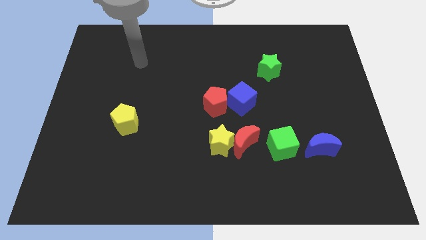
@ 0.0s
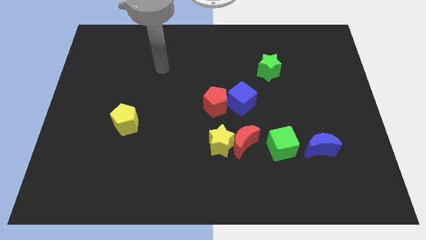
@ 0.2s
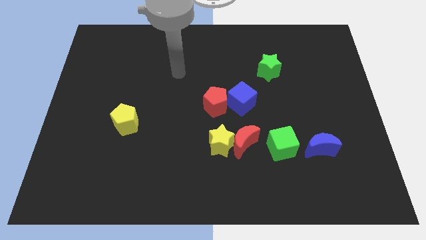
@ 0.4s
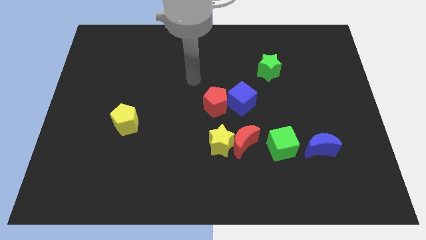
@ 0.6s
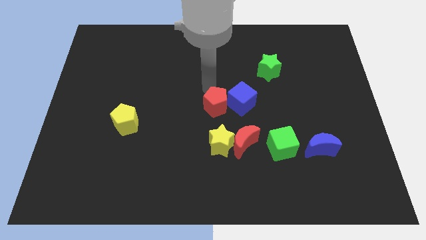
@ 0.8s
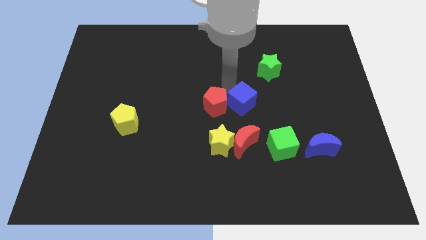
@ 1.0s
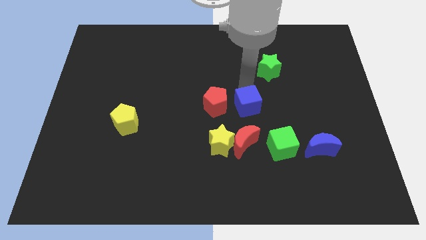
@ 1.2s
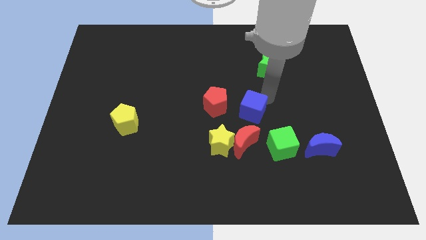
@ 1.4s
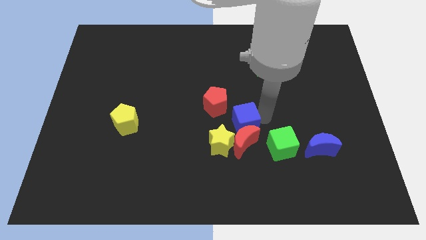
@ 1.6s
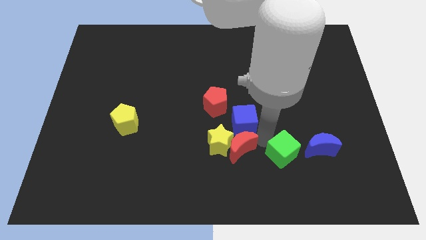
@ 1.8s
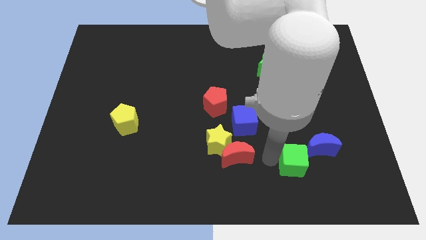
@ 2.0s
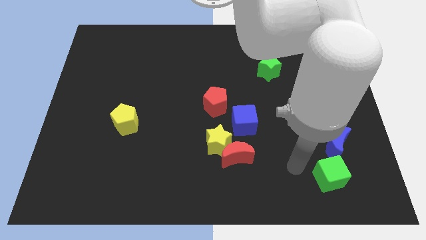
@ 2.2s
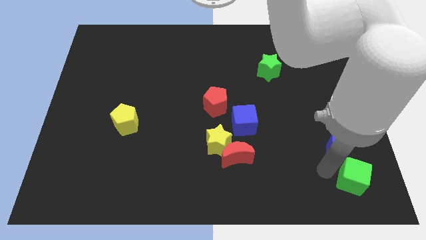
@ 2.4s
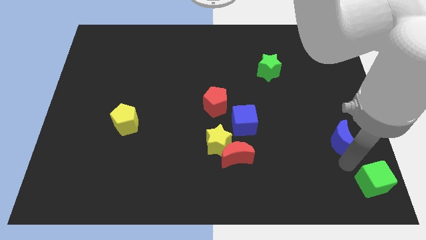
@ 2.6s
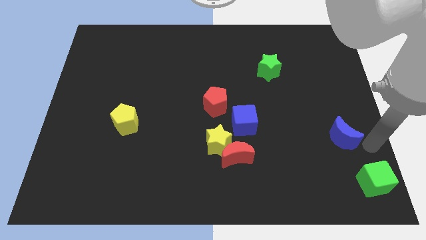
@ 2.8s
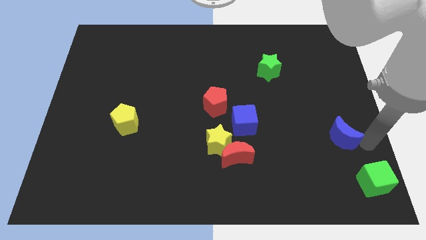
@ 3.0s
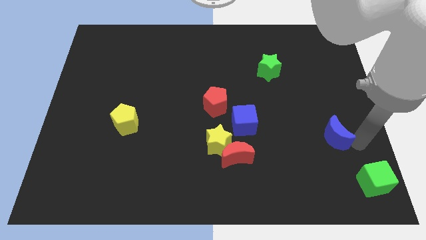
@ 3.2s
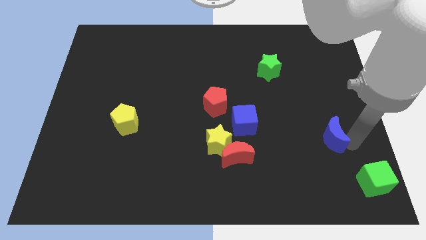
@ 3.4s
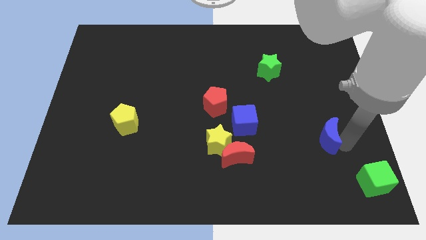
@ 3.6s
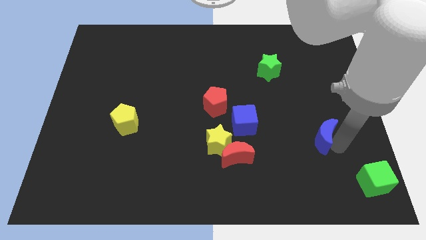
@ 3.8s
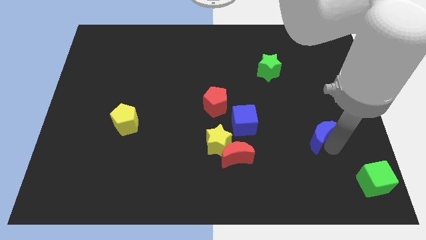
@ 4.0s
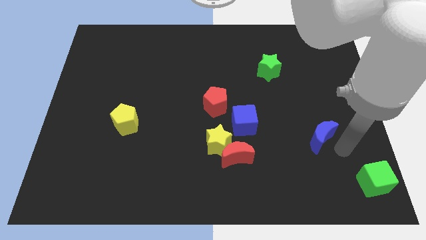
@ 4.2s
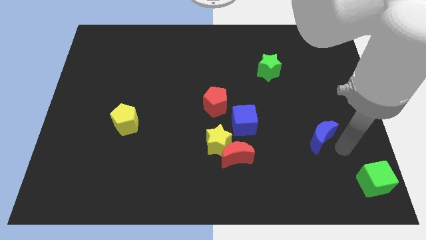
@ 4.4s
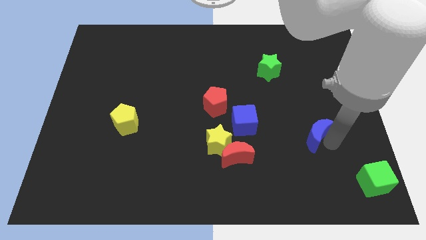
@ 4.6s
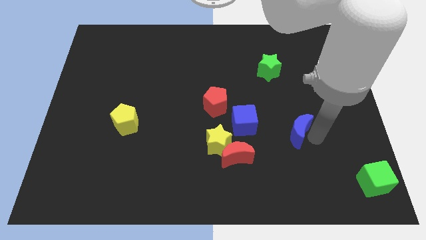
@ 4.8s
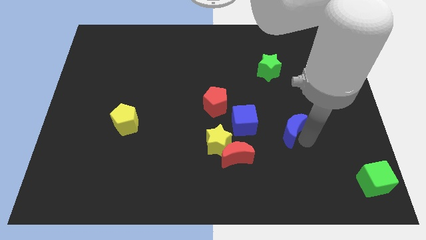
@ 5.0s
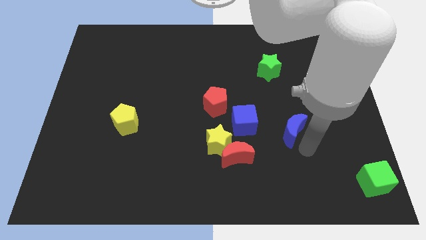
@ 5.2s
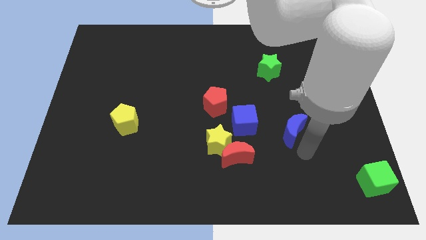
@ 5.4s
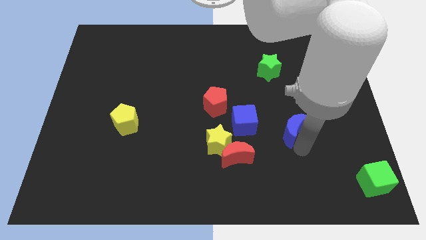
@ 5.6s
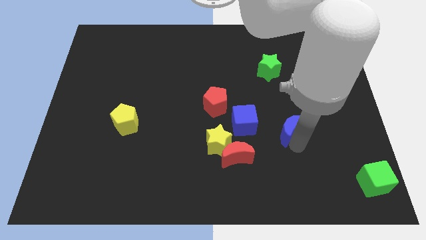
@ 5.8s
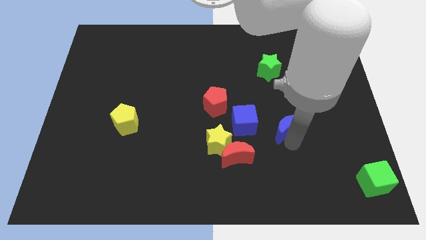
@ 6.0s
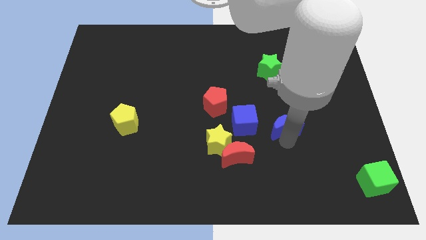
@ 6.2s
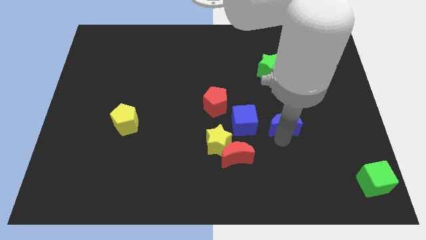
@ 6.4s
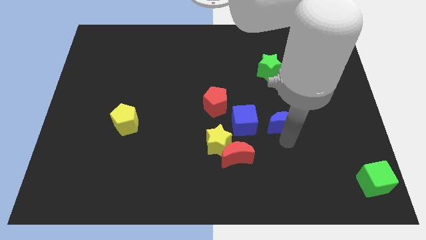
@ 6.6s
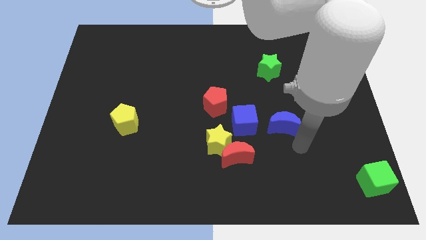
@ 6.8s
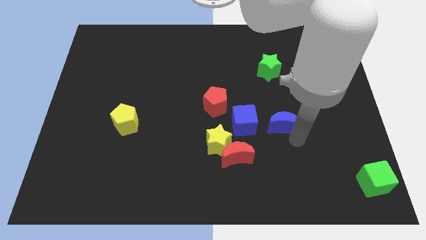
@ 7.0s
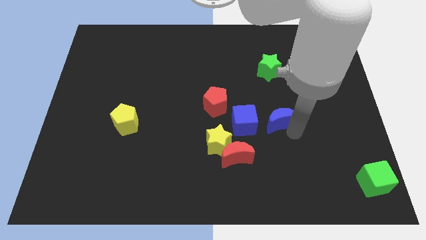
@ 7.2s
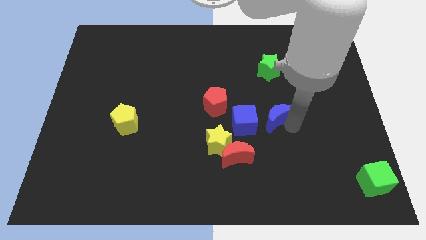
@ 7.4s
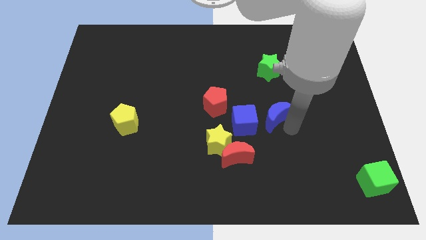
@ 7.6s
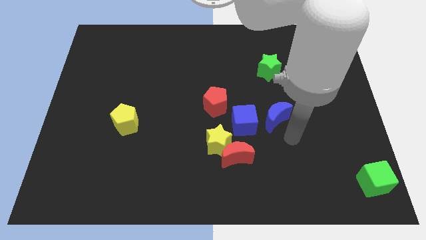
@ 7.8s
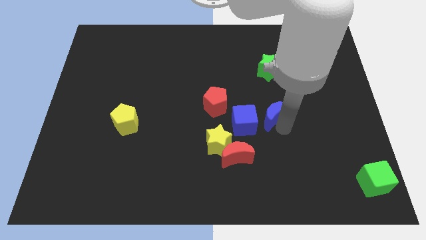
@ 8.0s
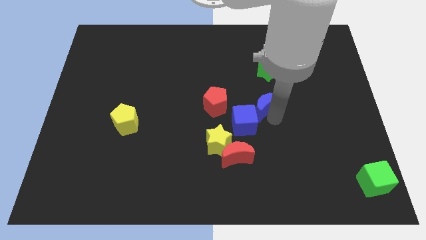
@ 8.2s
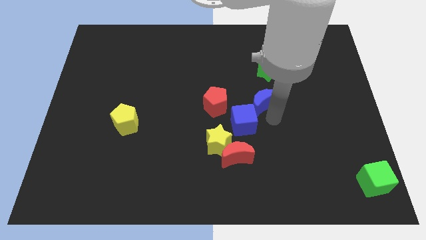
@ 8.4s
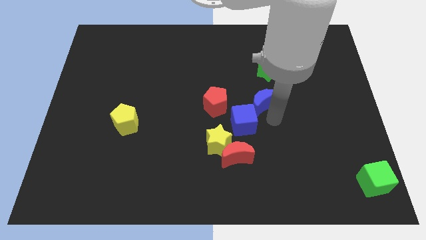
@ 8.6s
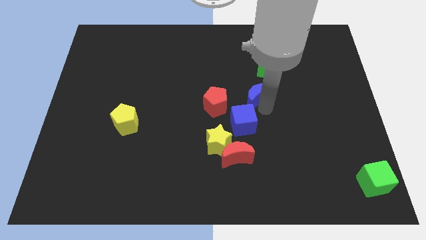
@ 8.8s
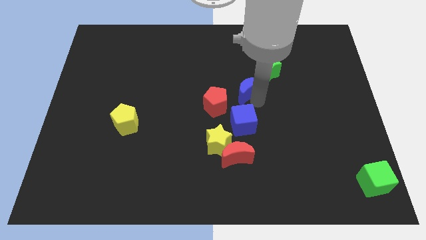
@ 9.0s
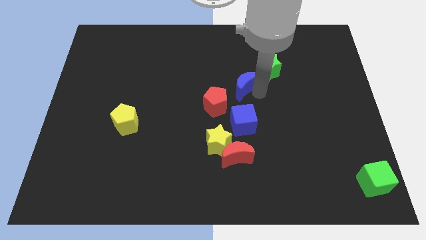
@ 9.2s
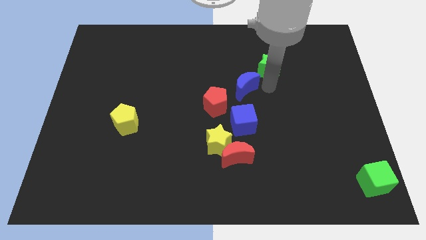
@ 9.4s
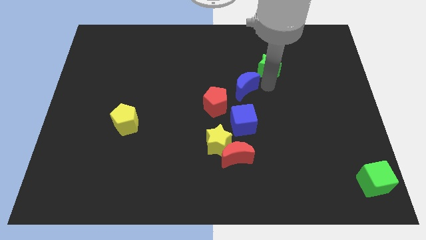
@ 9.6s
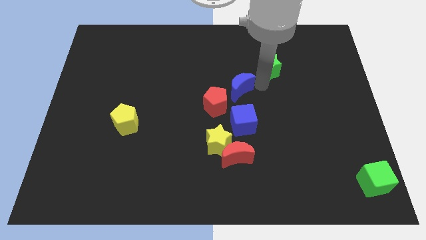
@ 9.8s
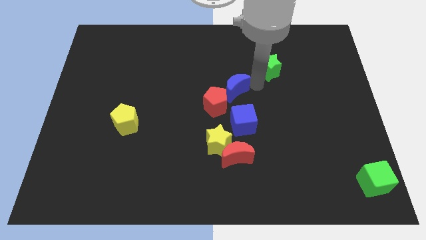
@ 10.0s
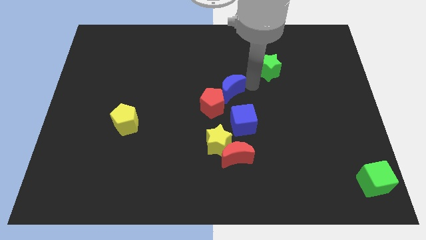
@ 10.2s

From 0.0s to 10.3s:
put the blue moon to the top of the yellow star

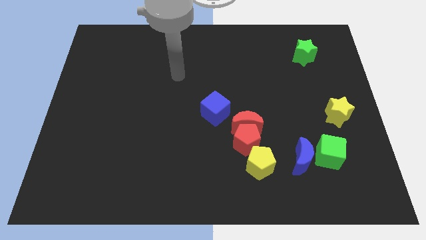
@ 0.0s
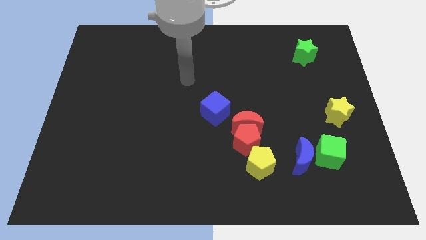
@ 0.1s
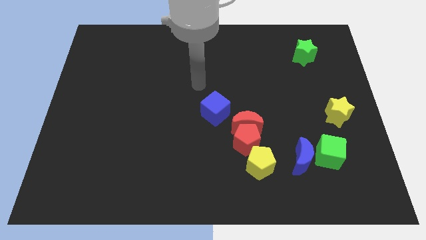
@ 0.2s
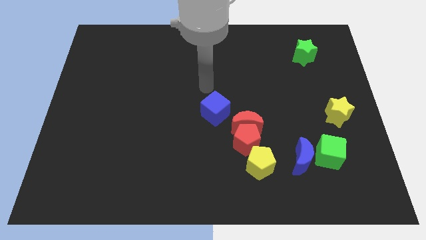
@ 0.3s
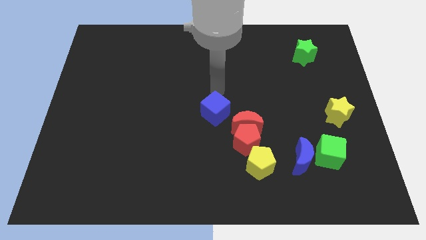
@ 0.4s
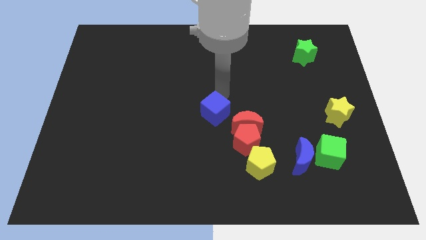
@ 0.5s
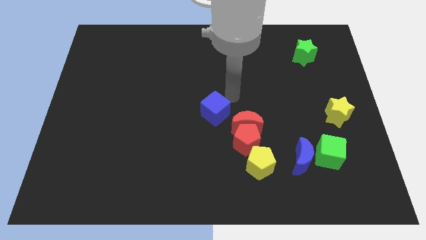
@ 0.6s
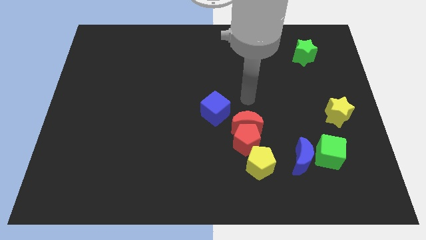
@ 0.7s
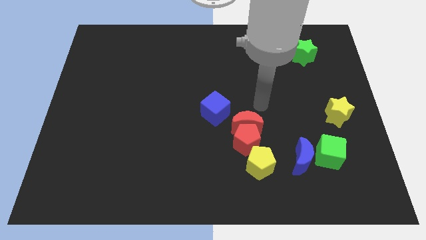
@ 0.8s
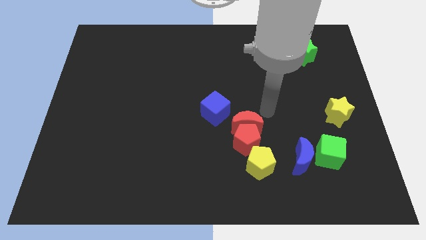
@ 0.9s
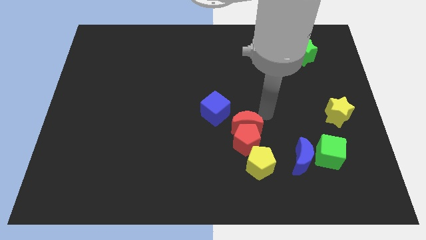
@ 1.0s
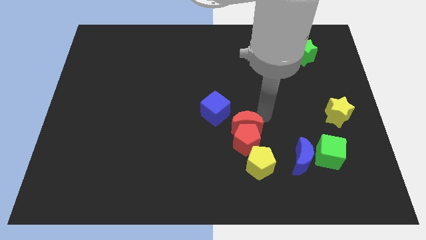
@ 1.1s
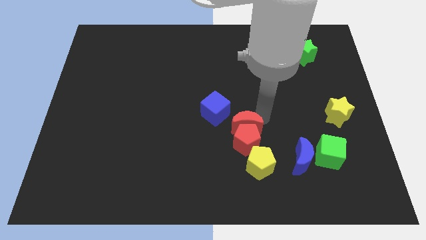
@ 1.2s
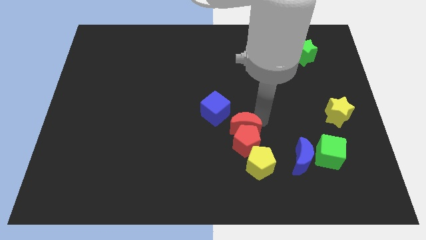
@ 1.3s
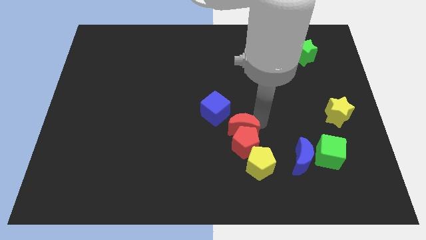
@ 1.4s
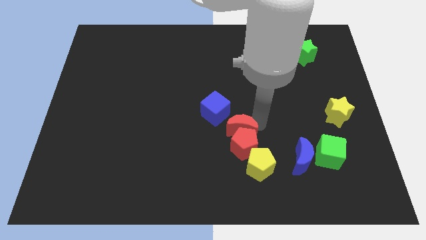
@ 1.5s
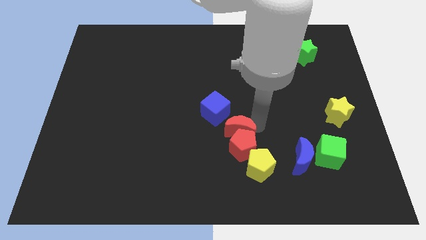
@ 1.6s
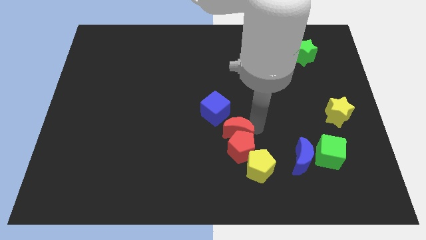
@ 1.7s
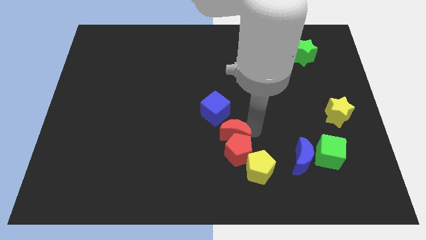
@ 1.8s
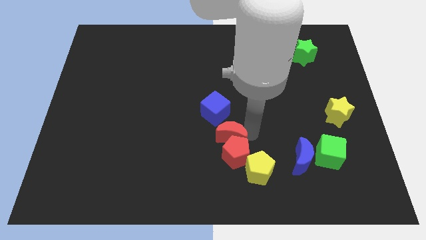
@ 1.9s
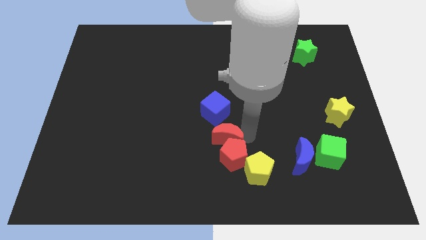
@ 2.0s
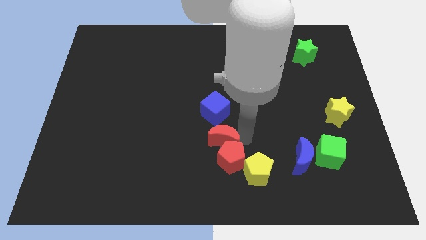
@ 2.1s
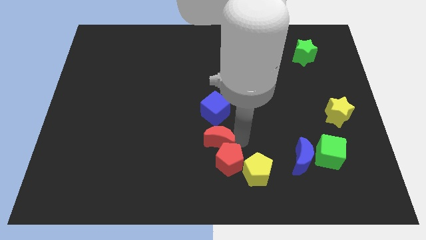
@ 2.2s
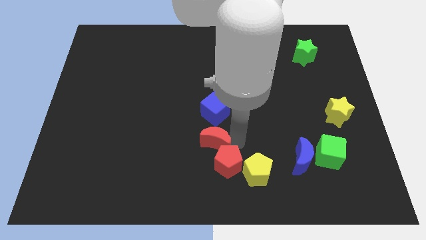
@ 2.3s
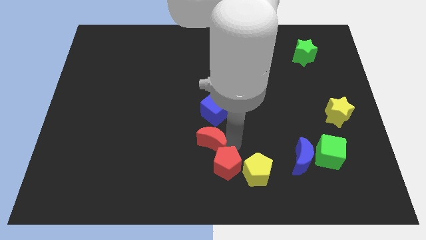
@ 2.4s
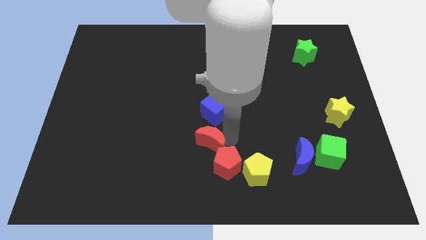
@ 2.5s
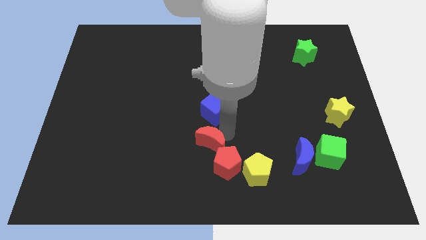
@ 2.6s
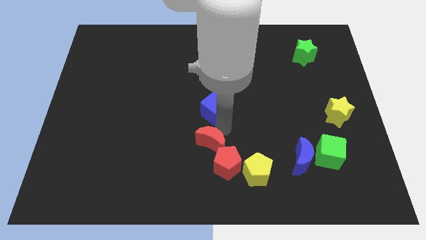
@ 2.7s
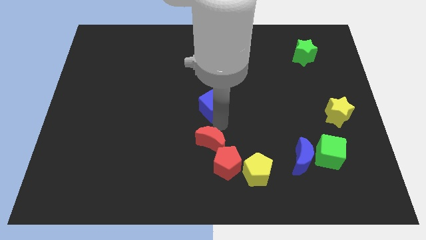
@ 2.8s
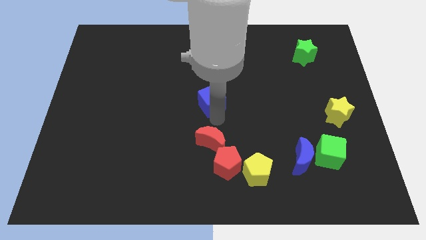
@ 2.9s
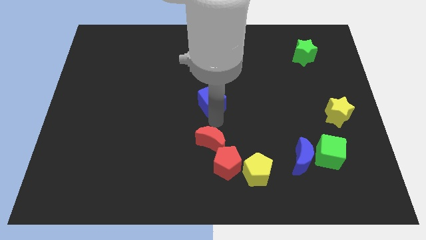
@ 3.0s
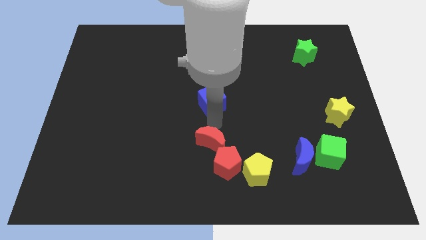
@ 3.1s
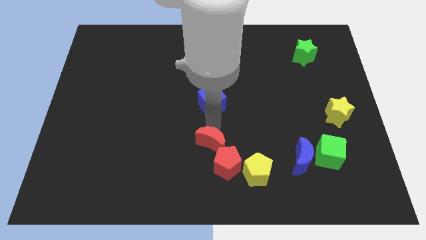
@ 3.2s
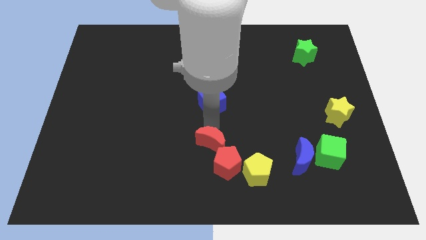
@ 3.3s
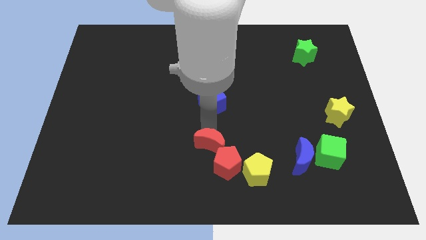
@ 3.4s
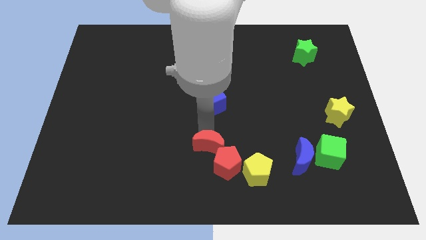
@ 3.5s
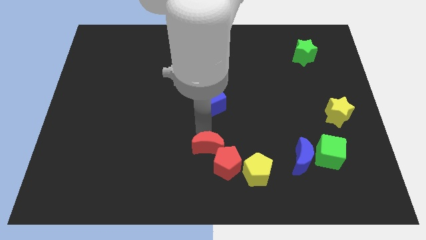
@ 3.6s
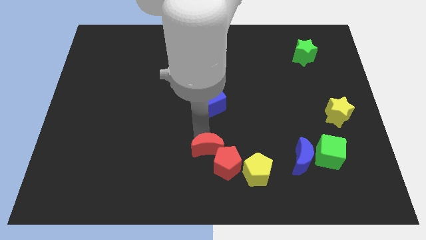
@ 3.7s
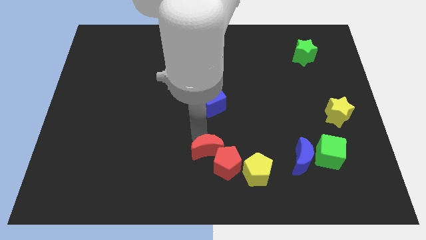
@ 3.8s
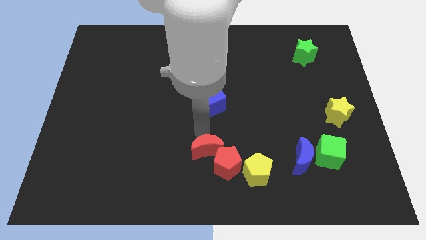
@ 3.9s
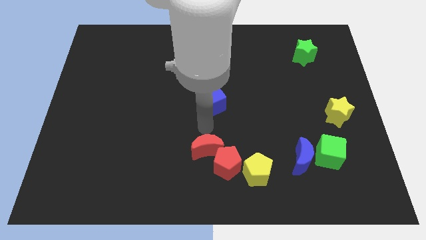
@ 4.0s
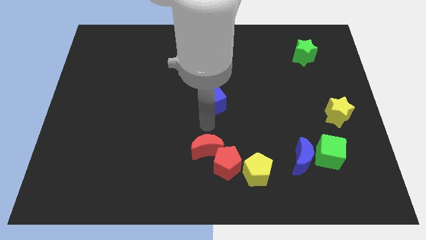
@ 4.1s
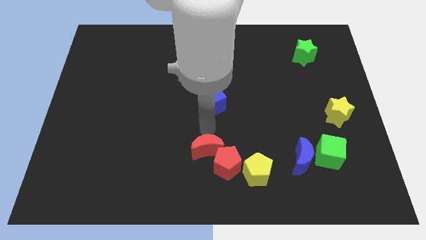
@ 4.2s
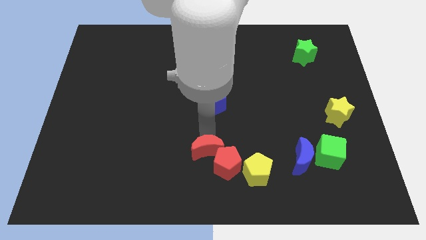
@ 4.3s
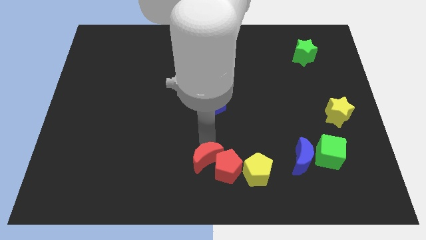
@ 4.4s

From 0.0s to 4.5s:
push the red moon to the left side of the yellow pentagon
